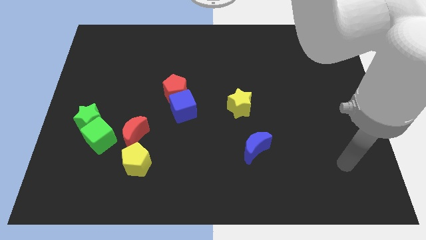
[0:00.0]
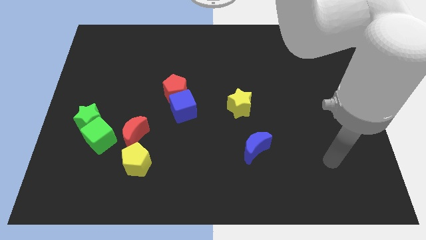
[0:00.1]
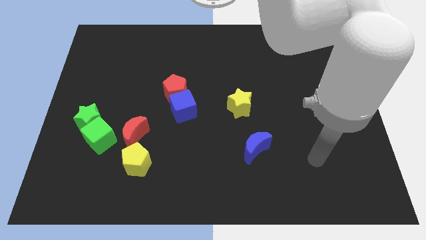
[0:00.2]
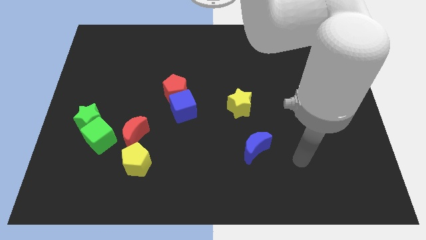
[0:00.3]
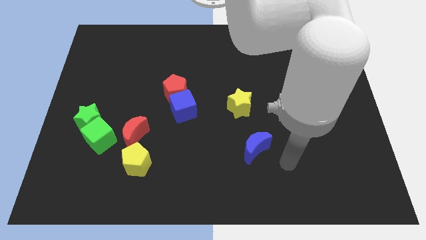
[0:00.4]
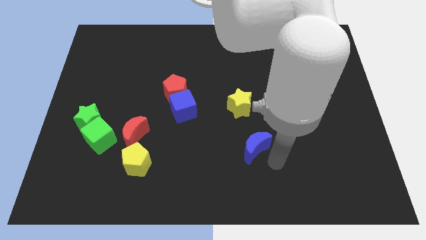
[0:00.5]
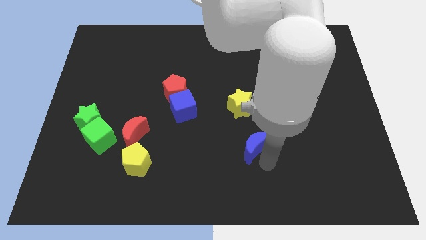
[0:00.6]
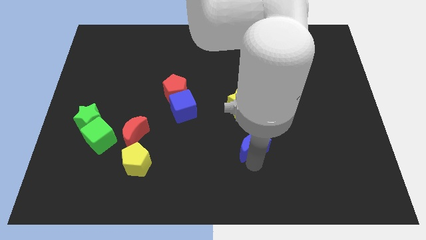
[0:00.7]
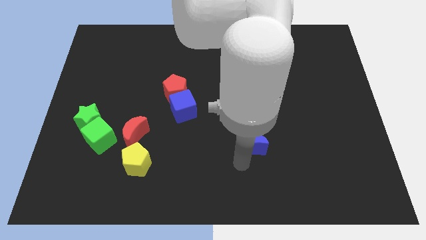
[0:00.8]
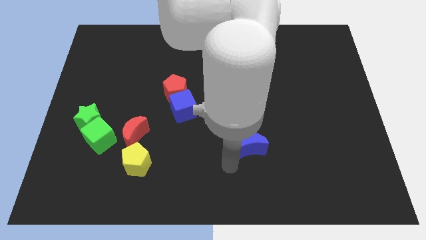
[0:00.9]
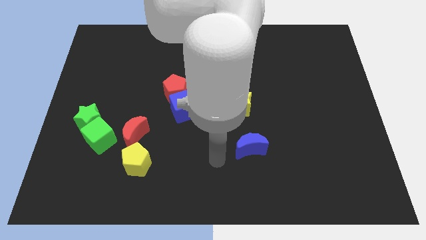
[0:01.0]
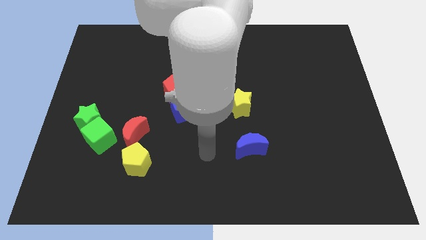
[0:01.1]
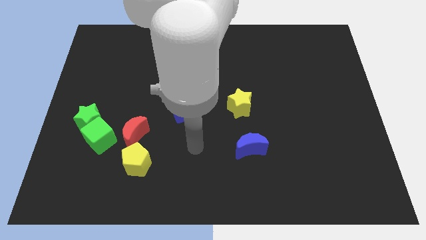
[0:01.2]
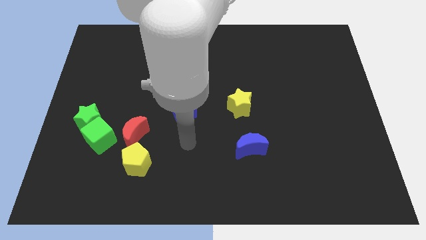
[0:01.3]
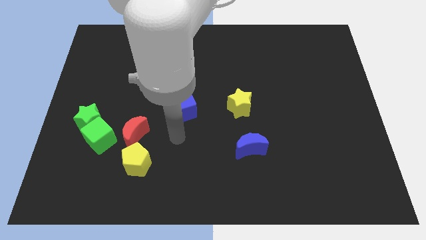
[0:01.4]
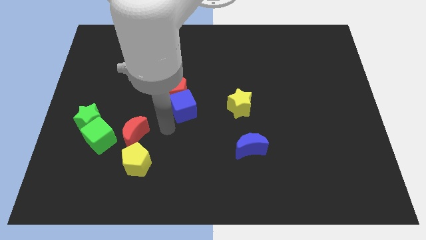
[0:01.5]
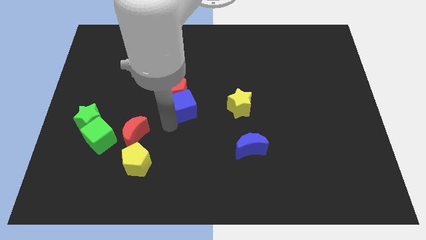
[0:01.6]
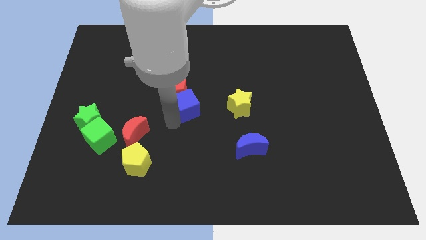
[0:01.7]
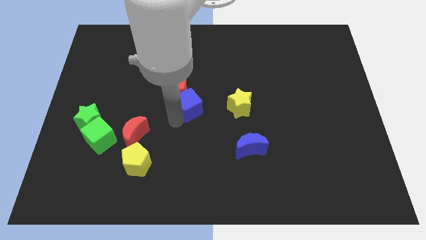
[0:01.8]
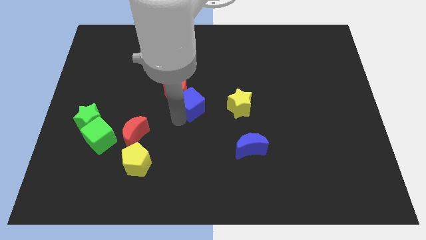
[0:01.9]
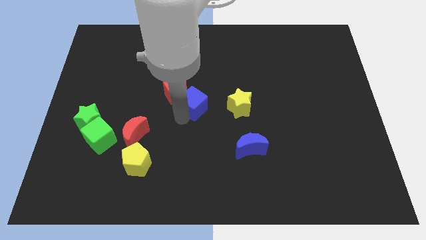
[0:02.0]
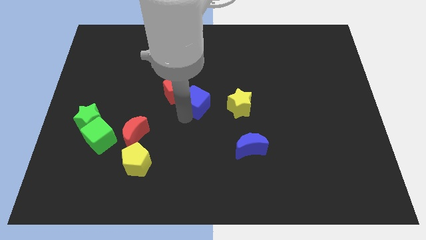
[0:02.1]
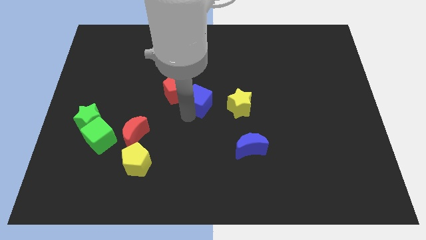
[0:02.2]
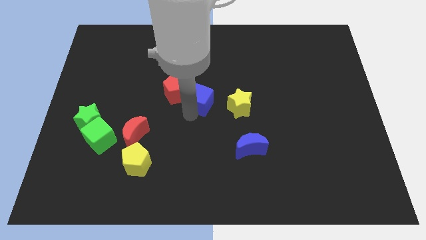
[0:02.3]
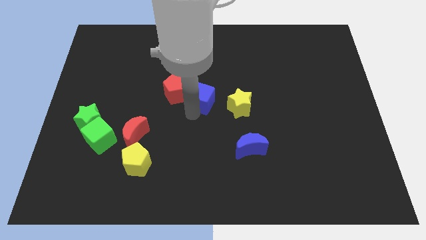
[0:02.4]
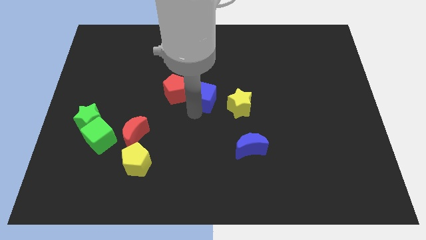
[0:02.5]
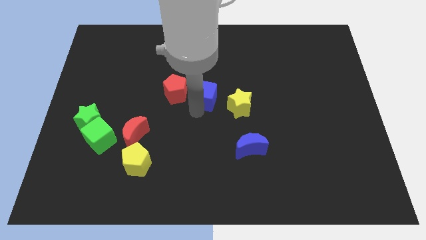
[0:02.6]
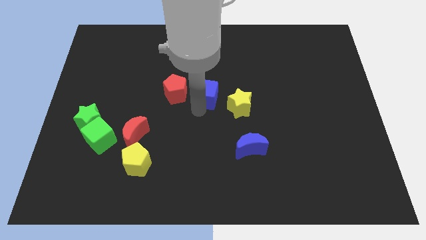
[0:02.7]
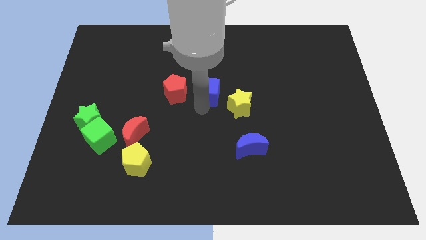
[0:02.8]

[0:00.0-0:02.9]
move the blue cube up and right diagonally a little bit

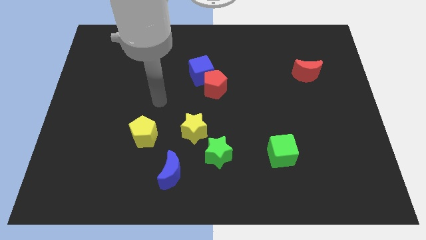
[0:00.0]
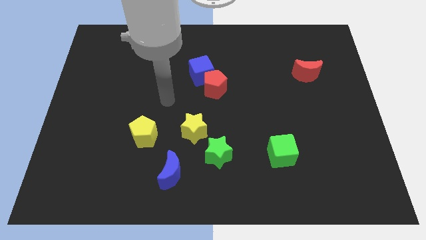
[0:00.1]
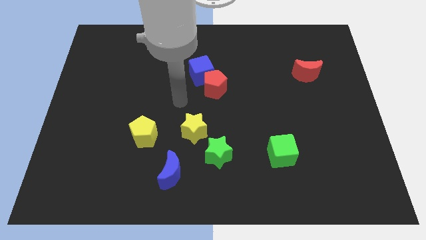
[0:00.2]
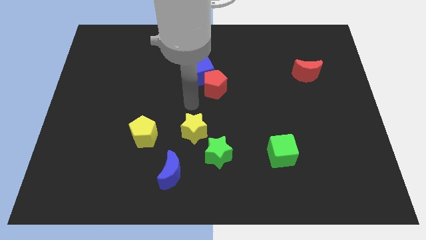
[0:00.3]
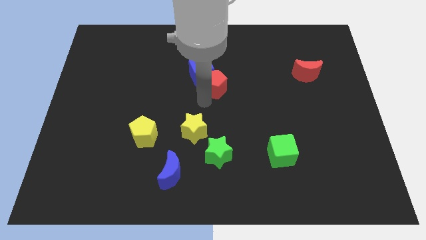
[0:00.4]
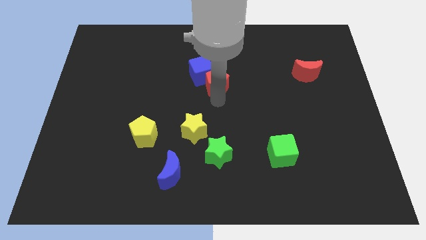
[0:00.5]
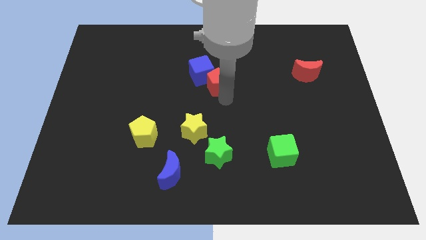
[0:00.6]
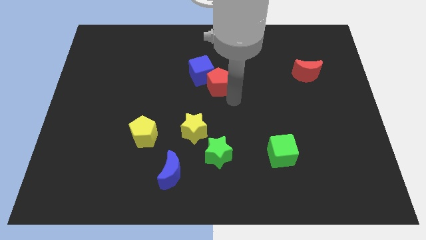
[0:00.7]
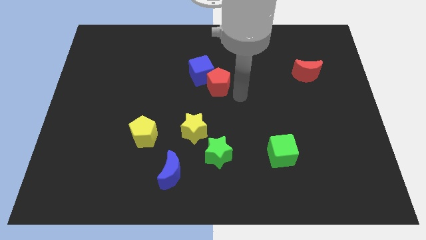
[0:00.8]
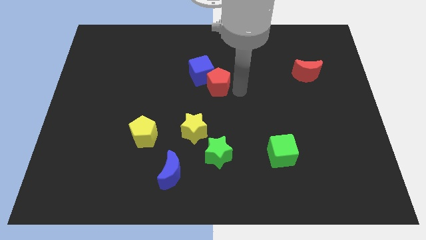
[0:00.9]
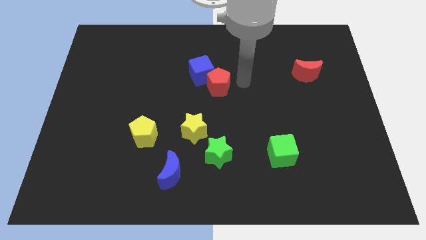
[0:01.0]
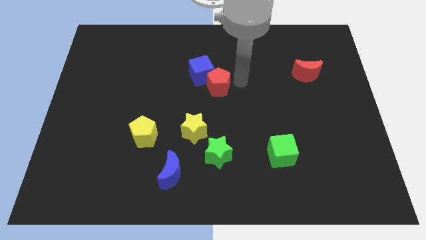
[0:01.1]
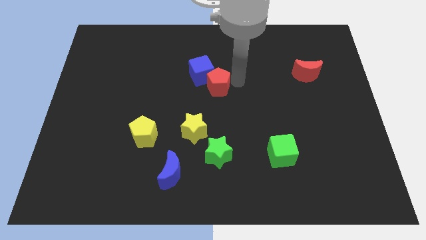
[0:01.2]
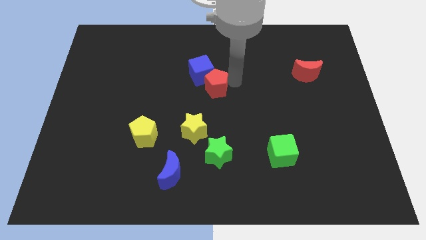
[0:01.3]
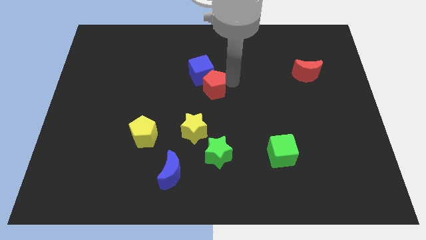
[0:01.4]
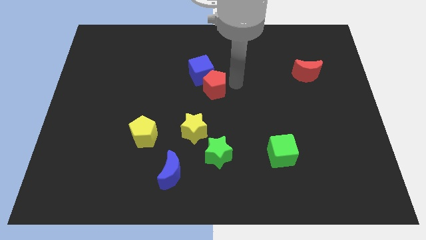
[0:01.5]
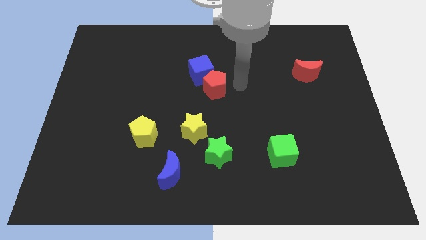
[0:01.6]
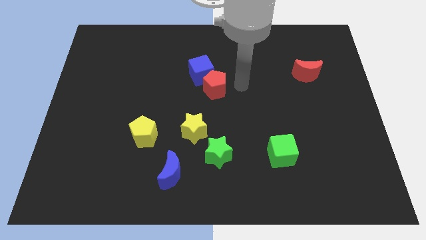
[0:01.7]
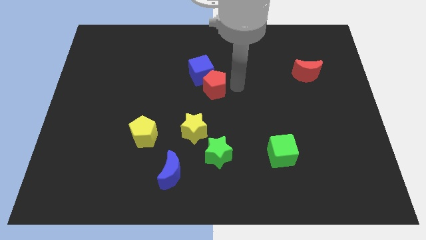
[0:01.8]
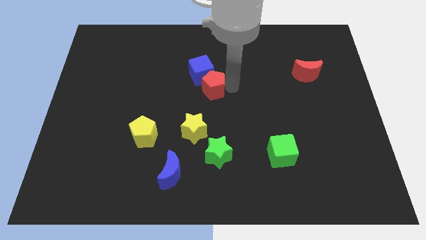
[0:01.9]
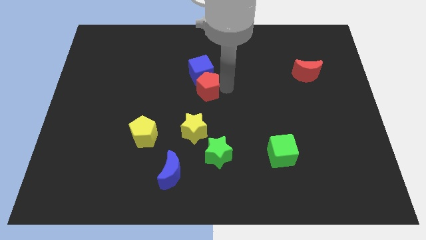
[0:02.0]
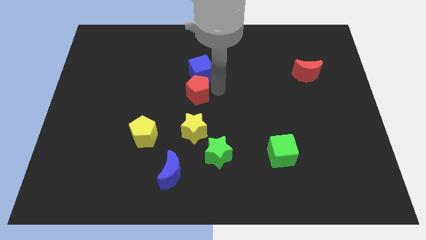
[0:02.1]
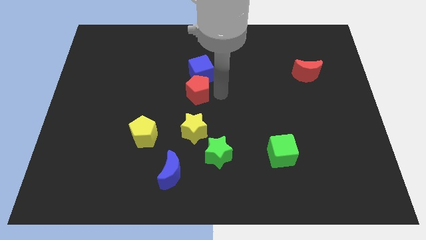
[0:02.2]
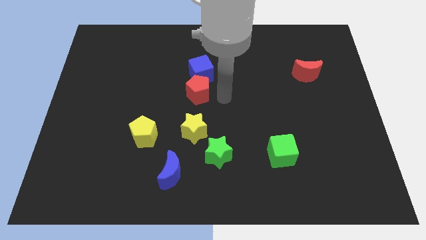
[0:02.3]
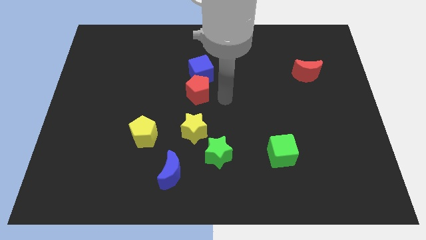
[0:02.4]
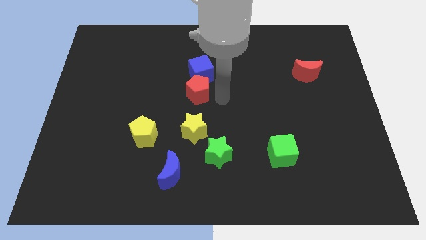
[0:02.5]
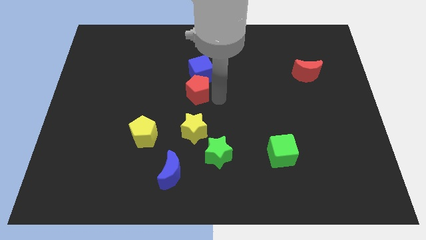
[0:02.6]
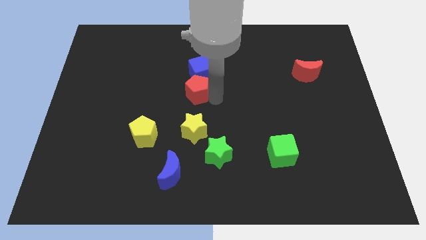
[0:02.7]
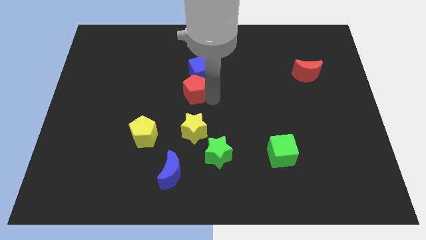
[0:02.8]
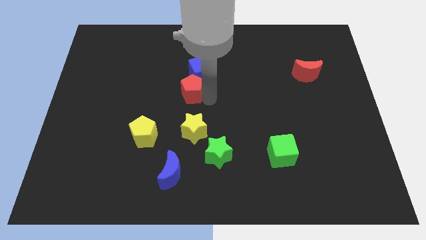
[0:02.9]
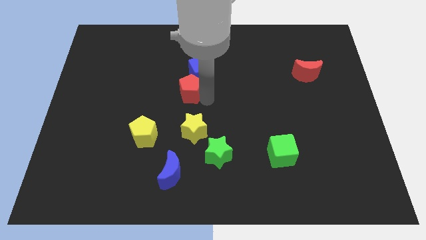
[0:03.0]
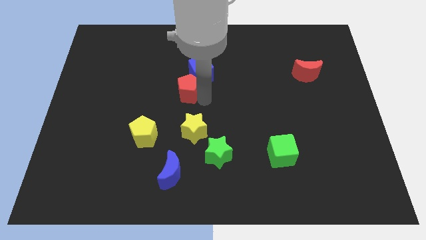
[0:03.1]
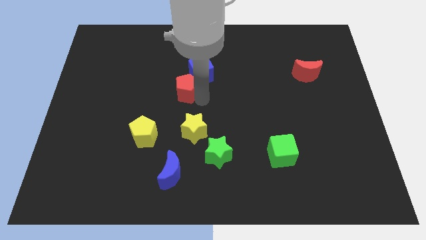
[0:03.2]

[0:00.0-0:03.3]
move the red pentagon a bit to the left

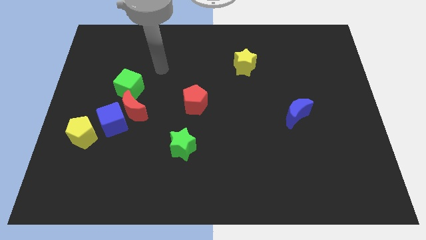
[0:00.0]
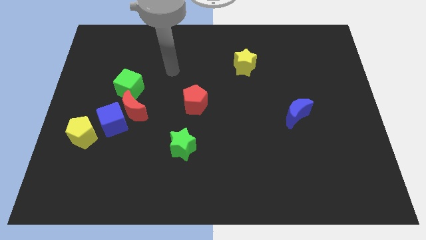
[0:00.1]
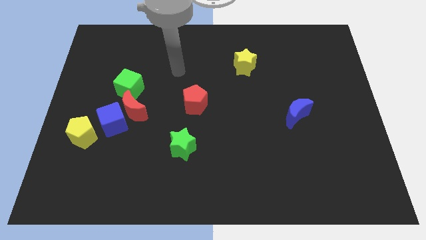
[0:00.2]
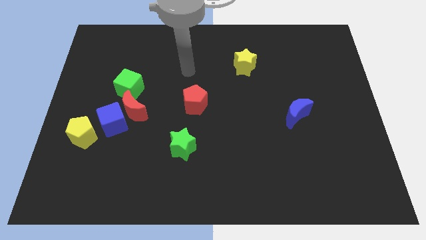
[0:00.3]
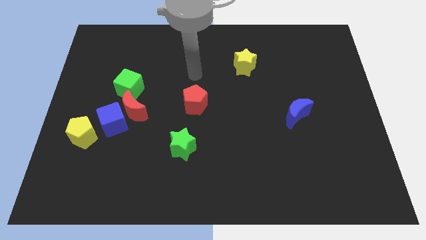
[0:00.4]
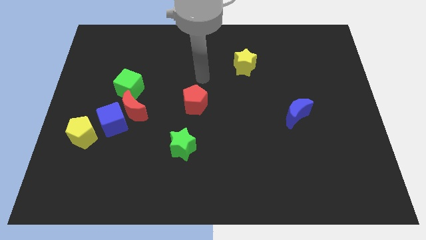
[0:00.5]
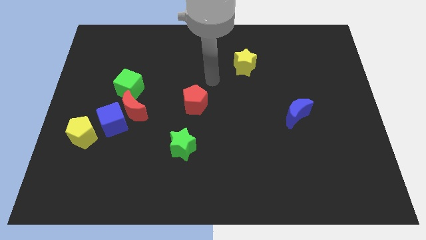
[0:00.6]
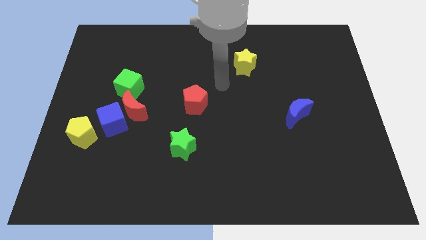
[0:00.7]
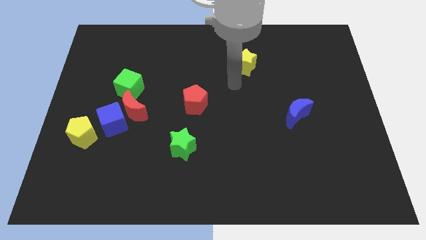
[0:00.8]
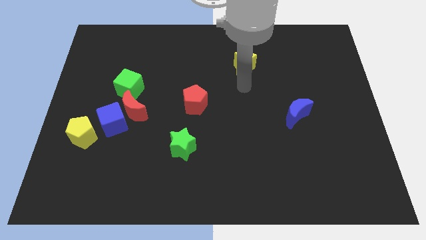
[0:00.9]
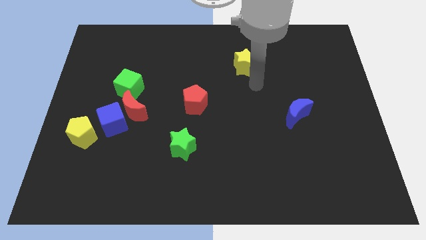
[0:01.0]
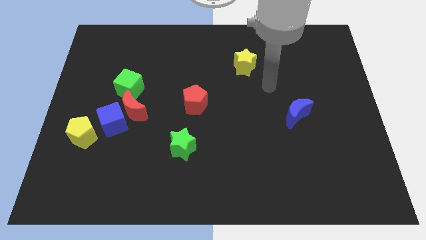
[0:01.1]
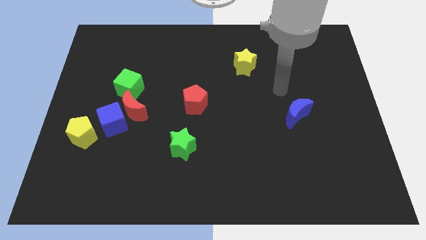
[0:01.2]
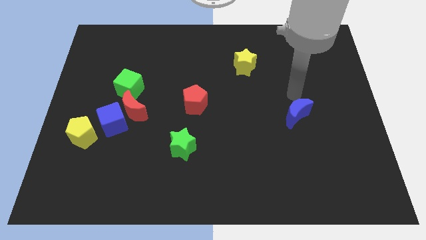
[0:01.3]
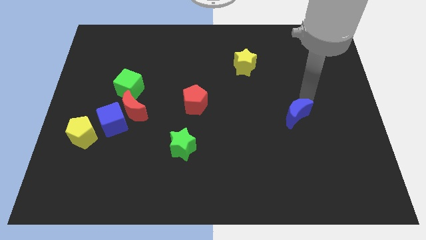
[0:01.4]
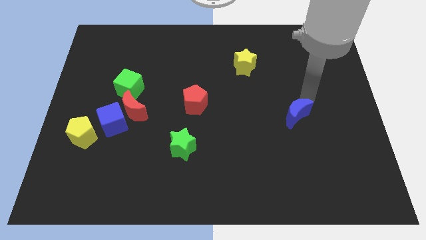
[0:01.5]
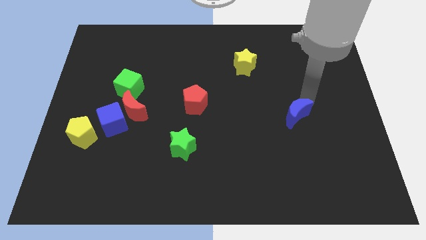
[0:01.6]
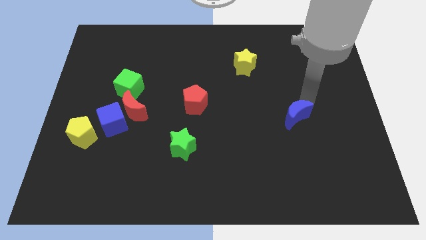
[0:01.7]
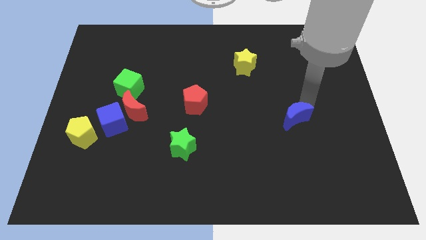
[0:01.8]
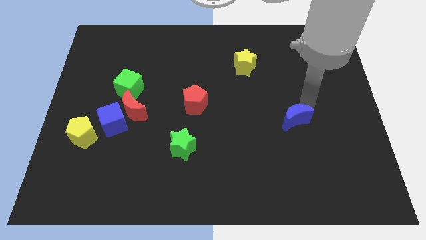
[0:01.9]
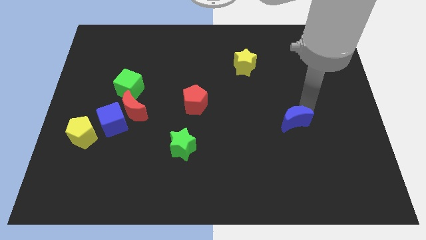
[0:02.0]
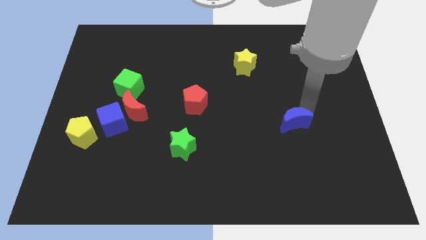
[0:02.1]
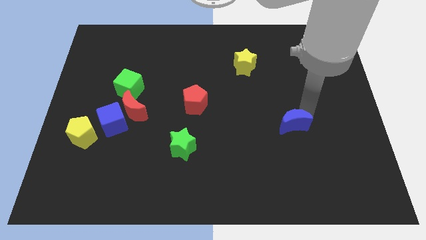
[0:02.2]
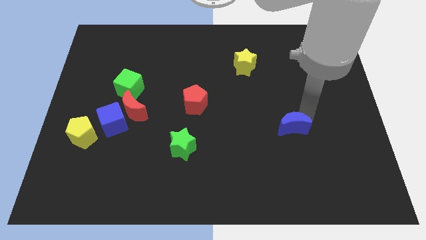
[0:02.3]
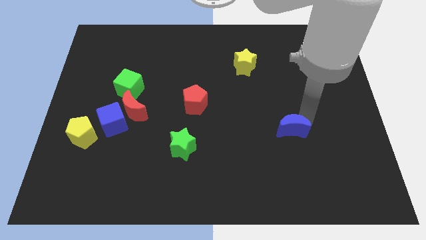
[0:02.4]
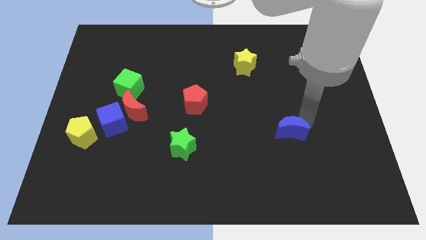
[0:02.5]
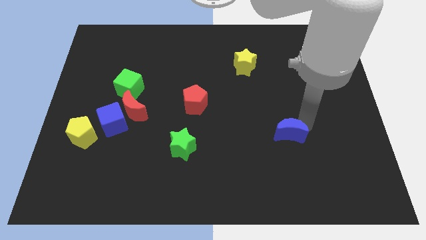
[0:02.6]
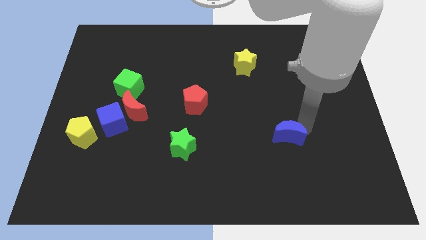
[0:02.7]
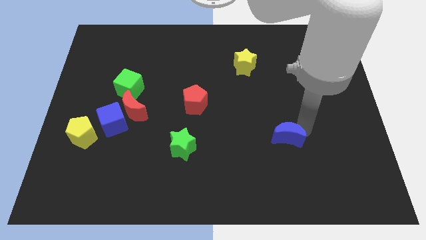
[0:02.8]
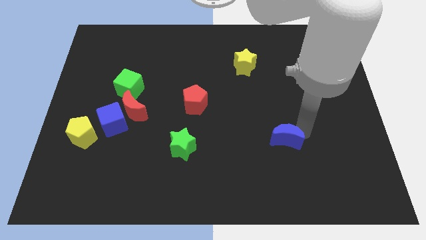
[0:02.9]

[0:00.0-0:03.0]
move the blue moon downwards and left diagonally a bit
